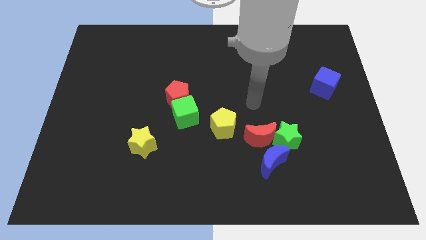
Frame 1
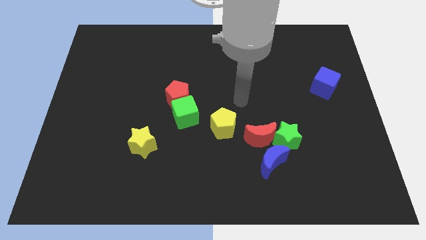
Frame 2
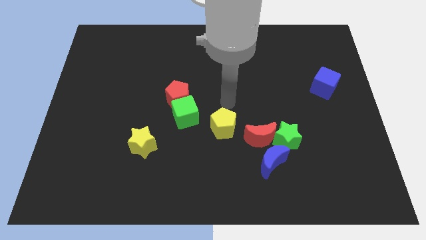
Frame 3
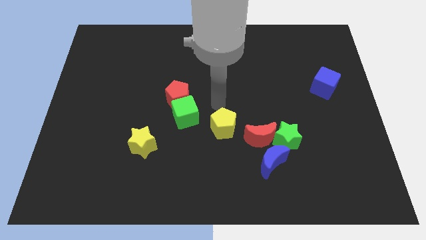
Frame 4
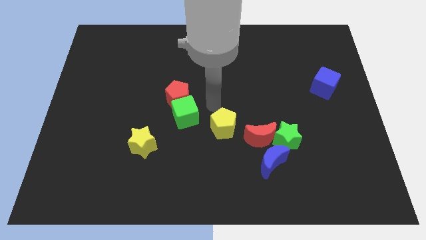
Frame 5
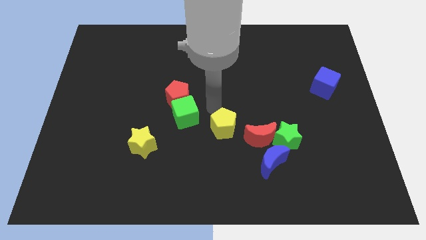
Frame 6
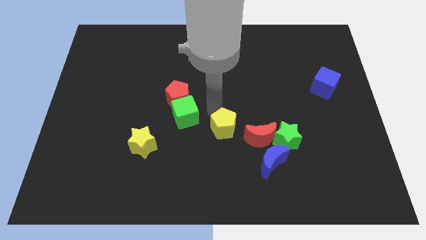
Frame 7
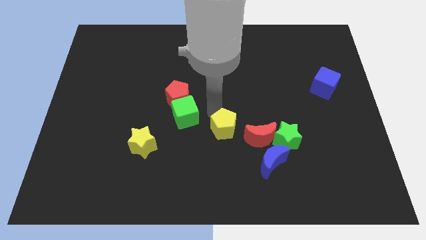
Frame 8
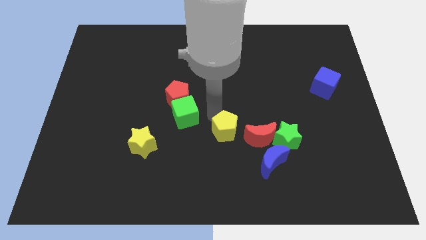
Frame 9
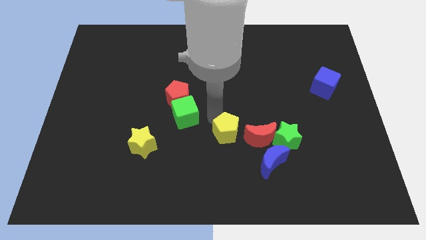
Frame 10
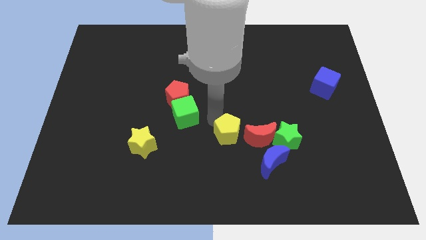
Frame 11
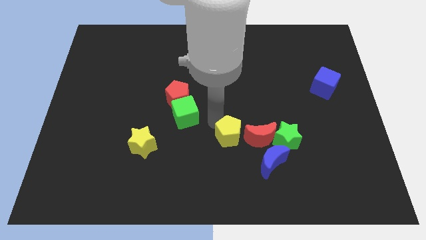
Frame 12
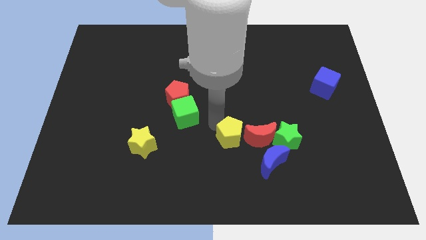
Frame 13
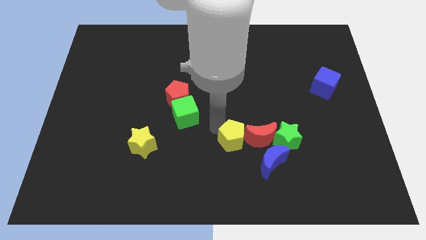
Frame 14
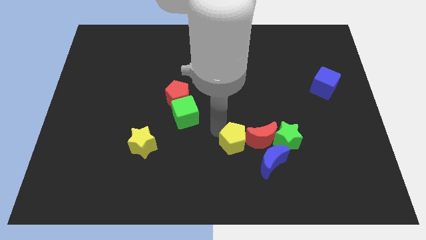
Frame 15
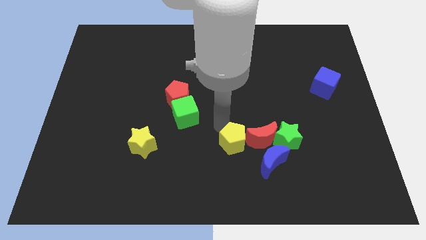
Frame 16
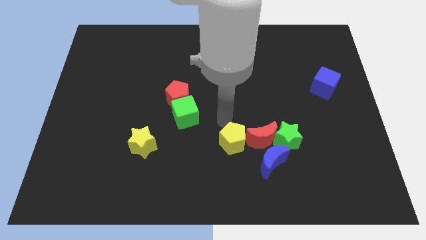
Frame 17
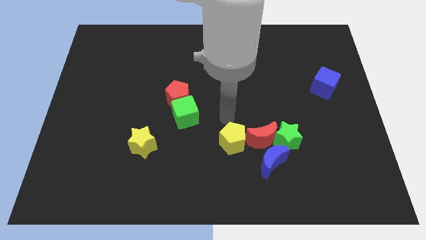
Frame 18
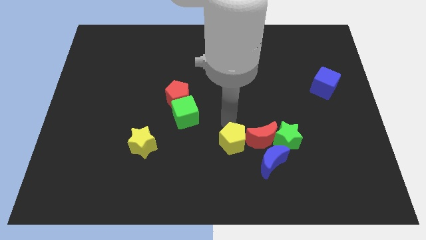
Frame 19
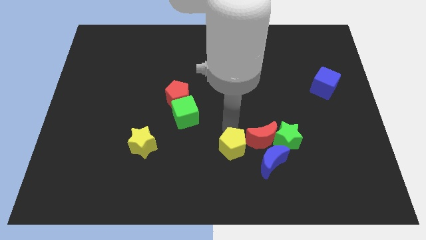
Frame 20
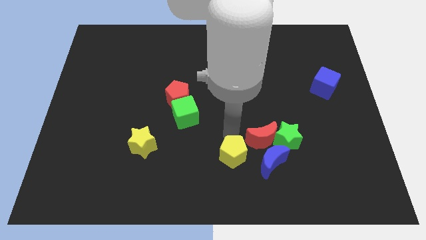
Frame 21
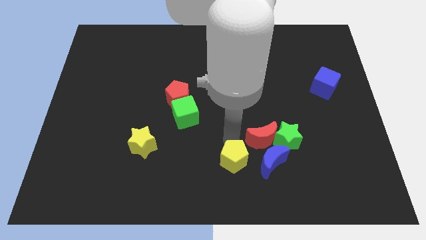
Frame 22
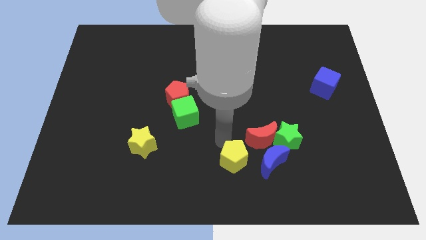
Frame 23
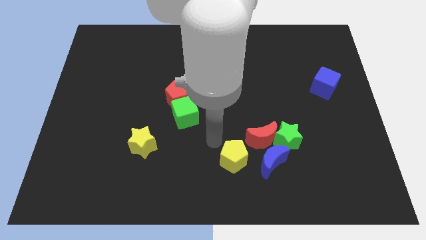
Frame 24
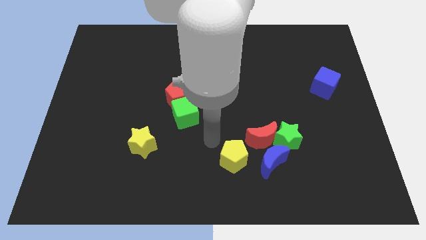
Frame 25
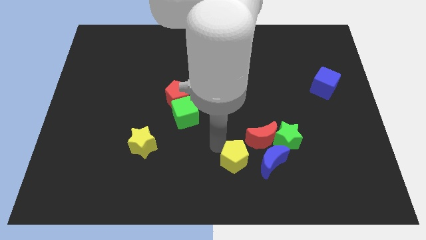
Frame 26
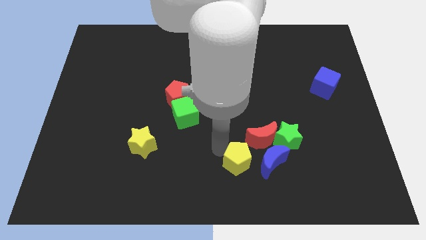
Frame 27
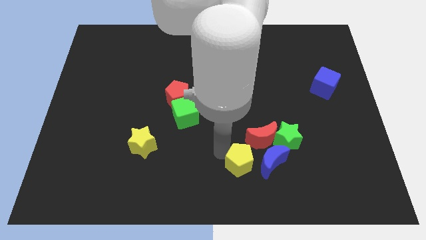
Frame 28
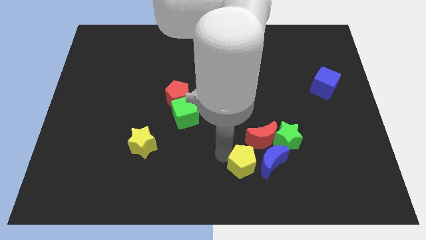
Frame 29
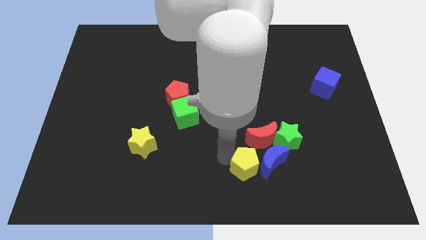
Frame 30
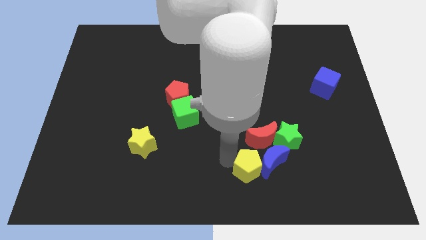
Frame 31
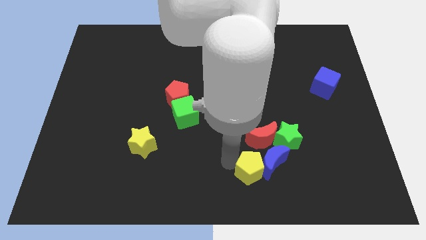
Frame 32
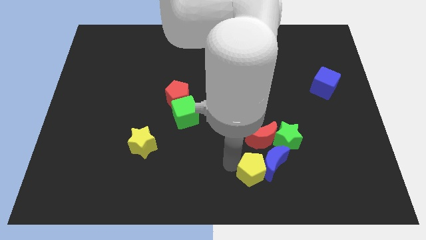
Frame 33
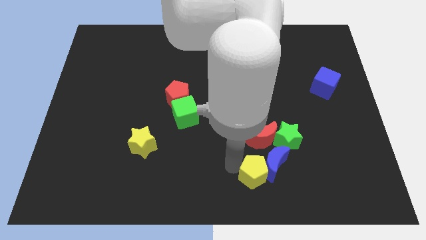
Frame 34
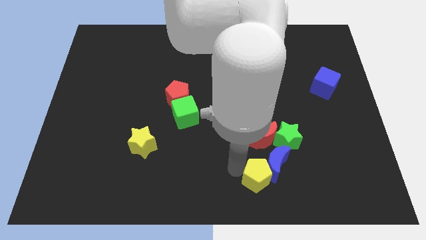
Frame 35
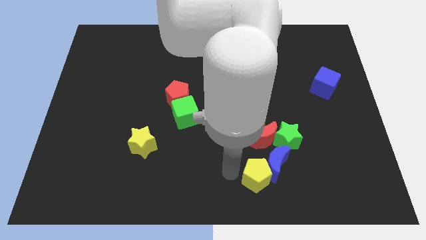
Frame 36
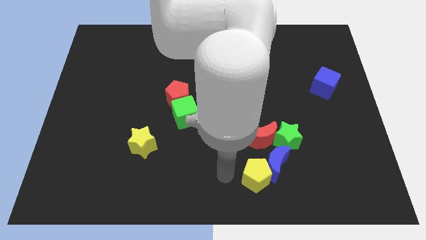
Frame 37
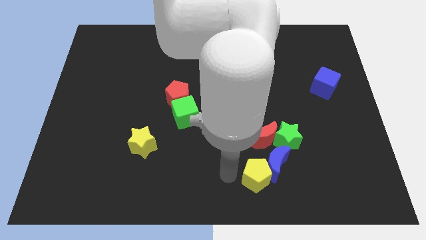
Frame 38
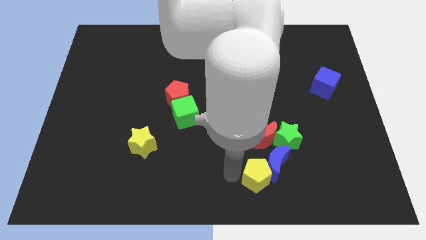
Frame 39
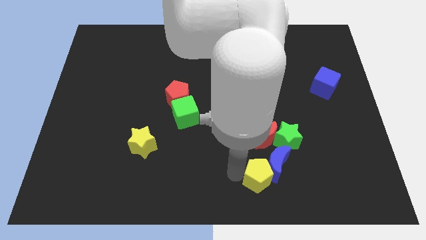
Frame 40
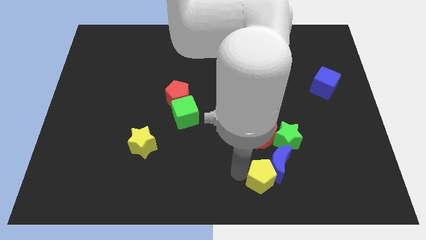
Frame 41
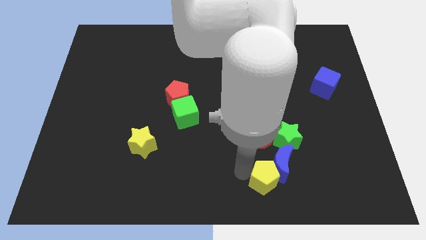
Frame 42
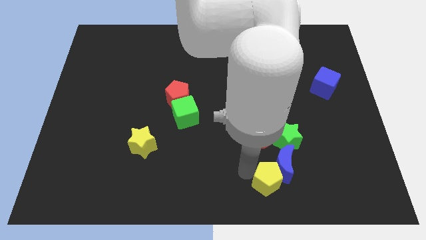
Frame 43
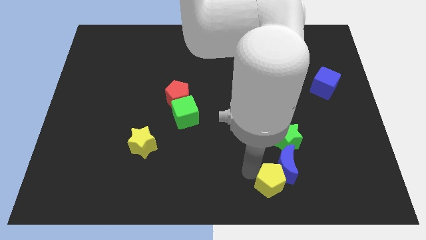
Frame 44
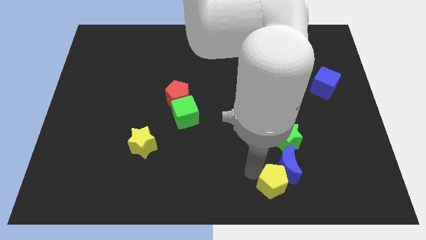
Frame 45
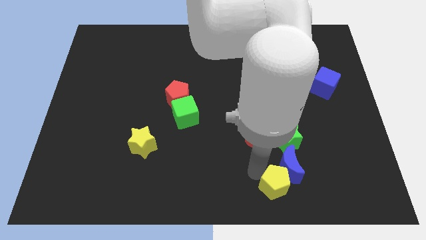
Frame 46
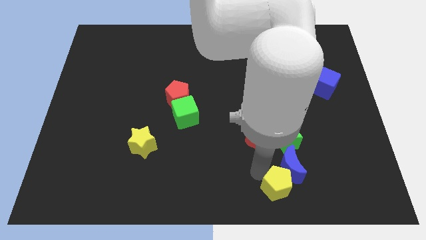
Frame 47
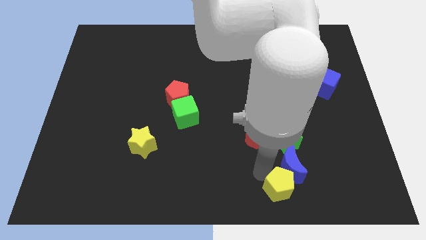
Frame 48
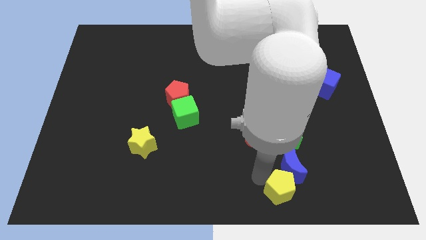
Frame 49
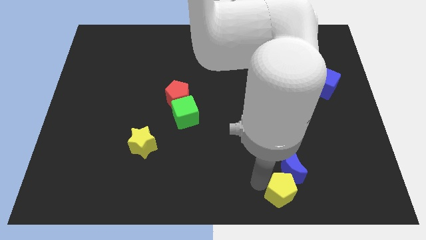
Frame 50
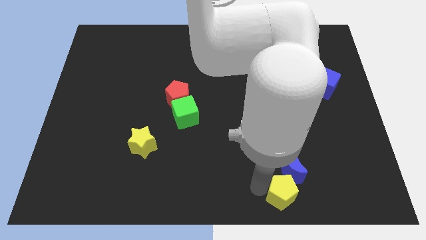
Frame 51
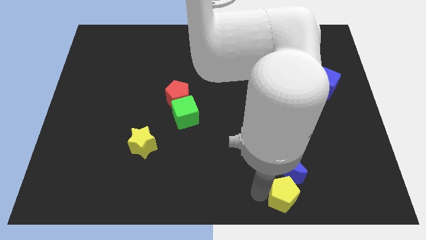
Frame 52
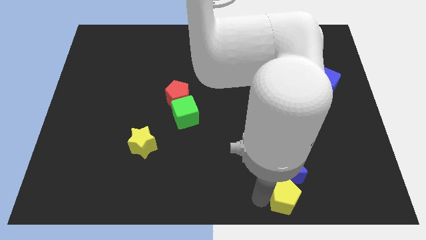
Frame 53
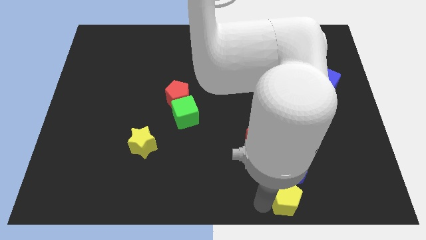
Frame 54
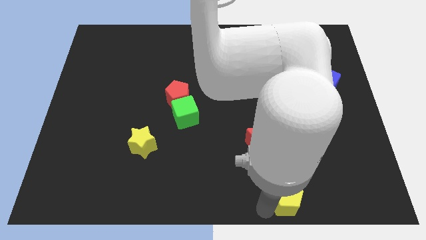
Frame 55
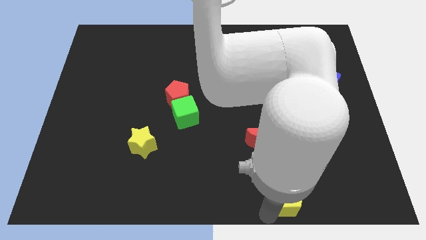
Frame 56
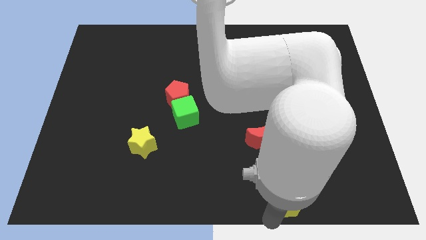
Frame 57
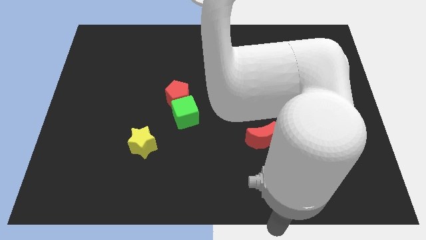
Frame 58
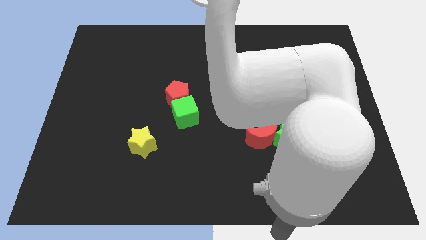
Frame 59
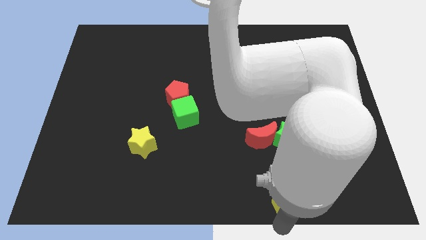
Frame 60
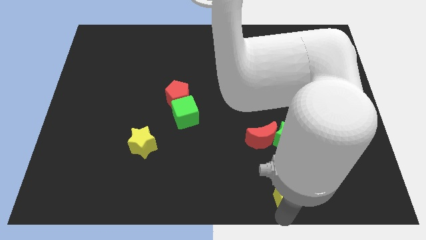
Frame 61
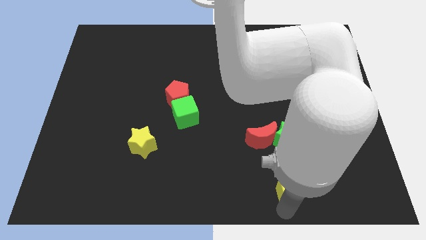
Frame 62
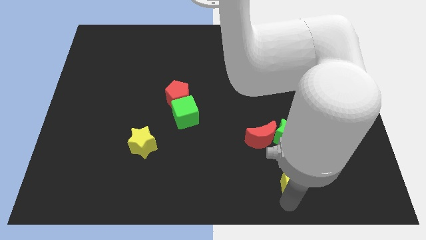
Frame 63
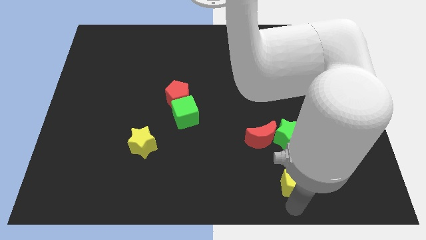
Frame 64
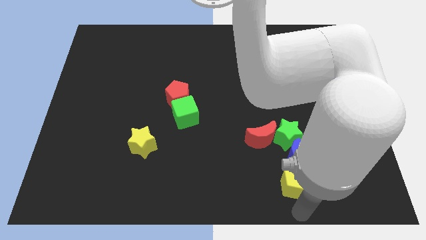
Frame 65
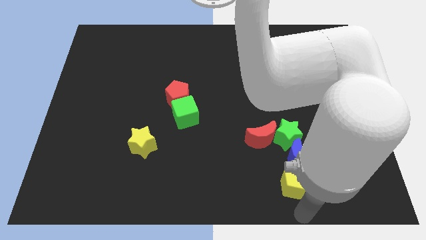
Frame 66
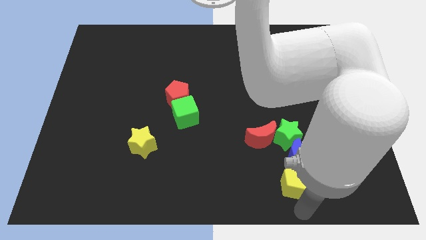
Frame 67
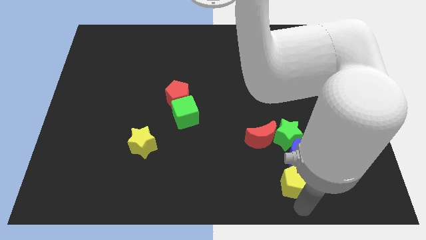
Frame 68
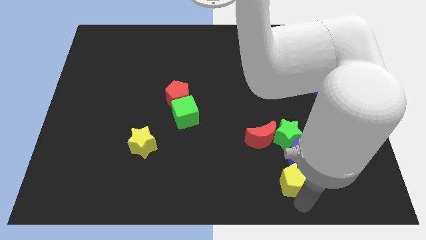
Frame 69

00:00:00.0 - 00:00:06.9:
move the yellow pentagon to the bottom right side of the red moon

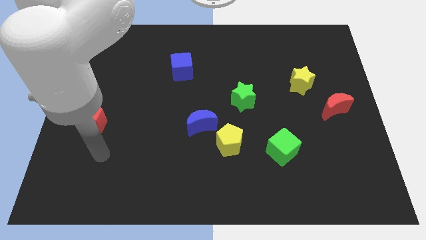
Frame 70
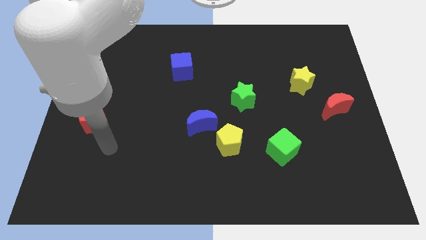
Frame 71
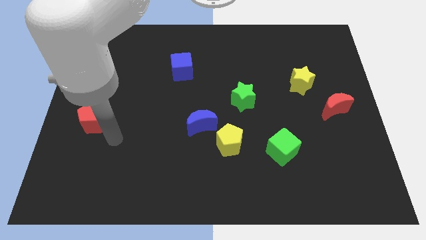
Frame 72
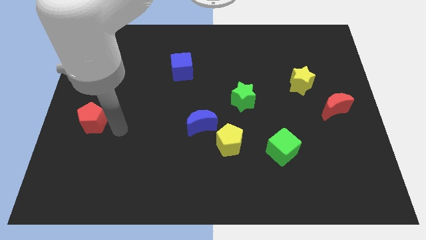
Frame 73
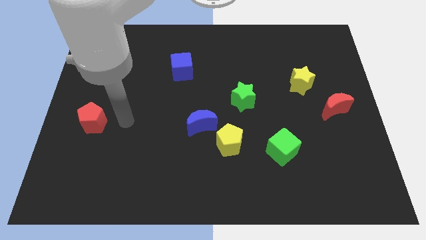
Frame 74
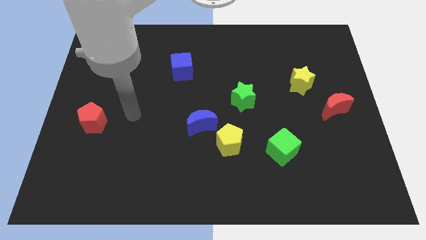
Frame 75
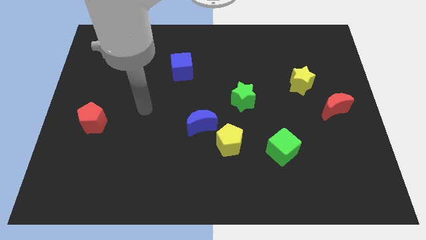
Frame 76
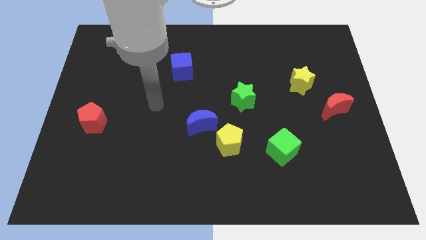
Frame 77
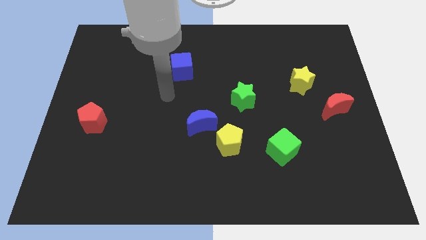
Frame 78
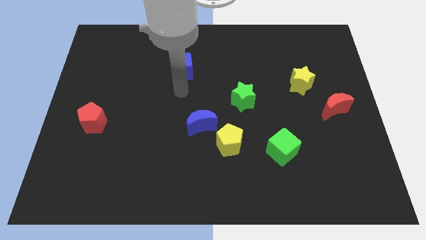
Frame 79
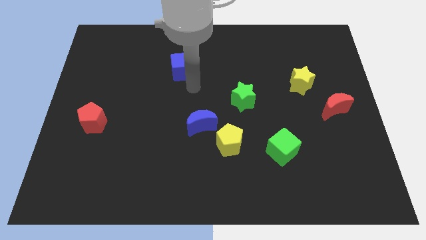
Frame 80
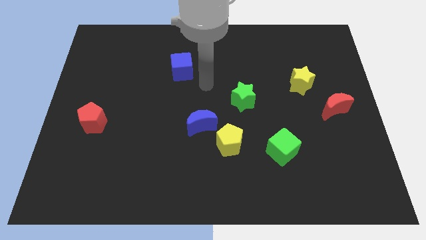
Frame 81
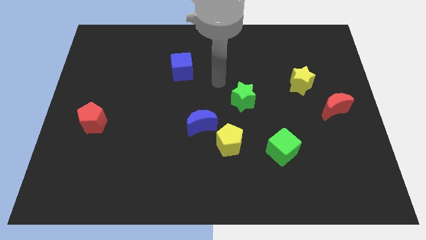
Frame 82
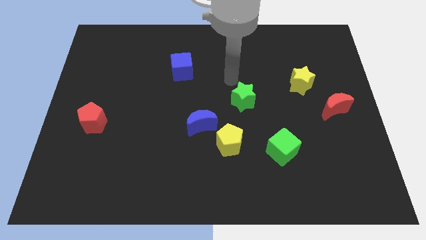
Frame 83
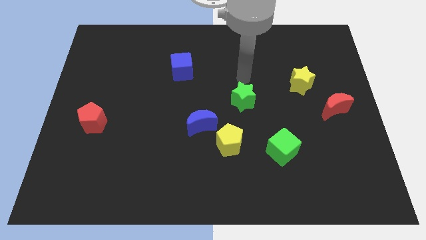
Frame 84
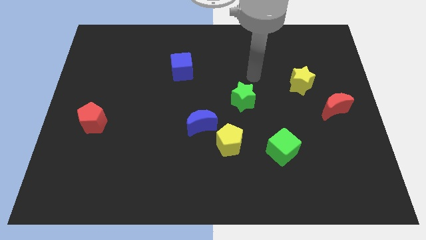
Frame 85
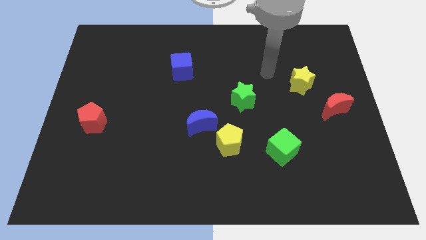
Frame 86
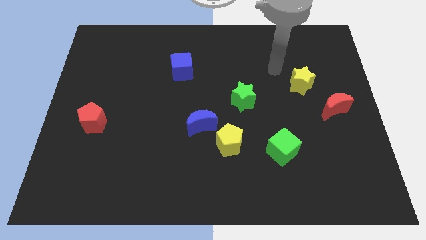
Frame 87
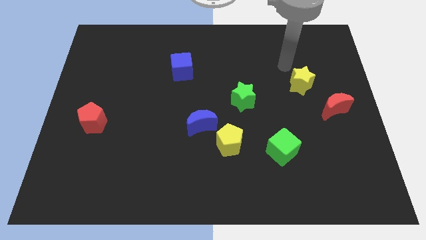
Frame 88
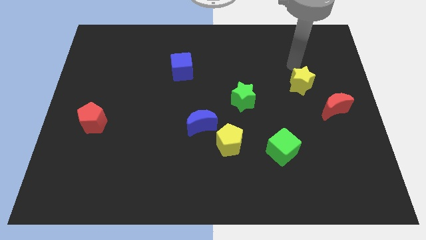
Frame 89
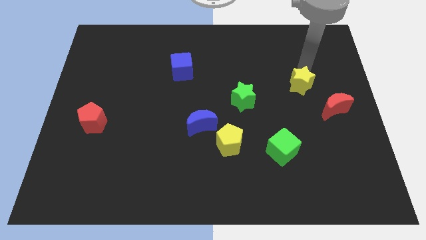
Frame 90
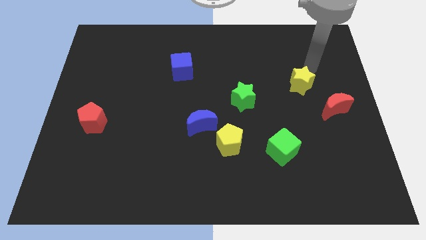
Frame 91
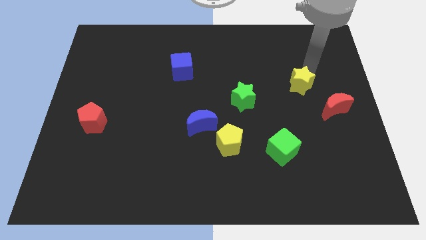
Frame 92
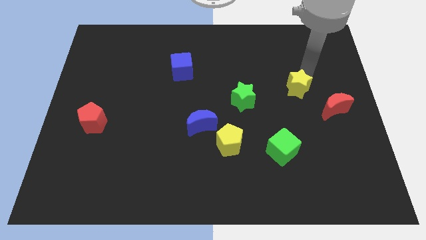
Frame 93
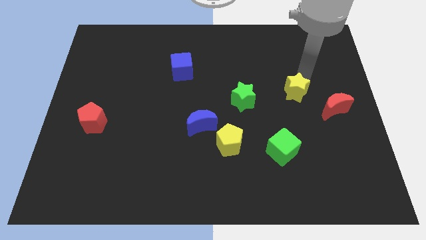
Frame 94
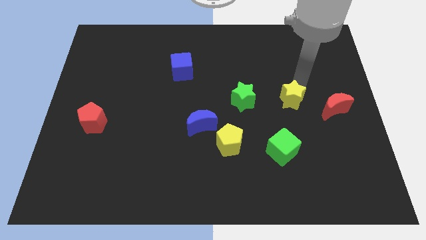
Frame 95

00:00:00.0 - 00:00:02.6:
slide the yellow star to the top of the green cube
